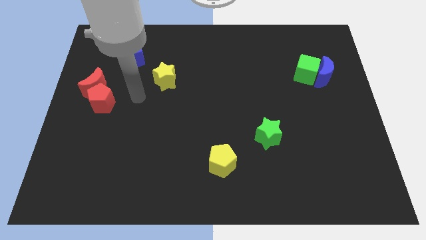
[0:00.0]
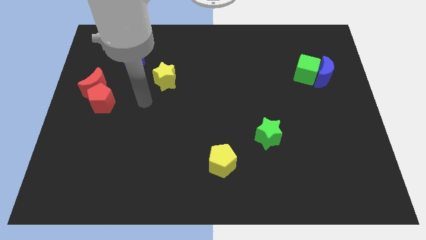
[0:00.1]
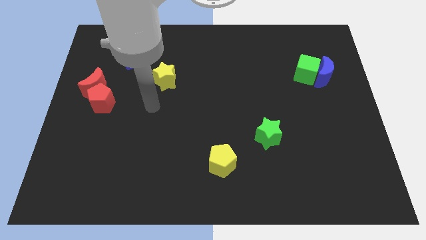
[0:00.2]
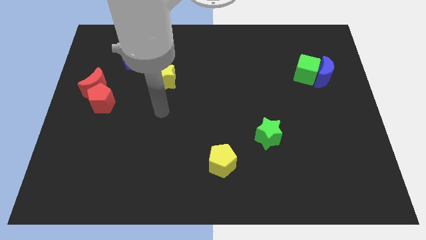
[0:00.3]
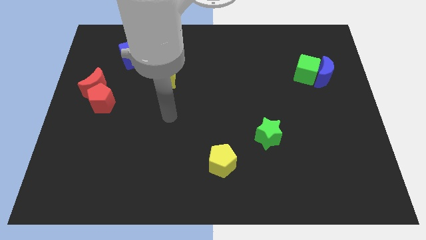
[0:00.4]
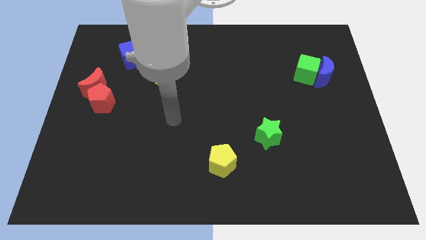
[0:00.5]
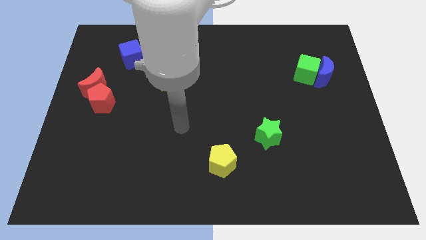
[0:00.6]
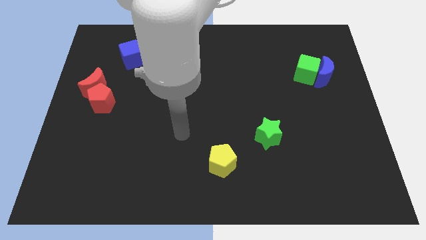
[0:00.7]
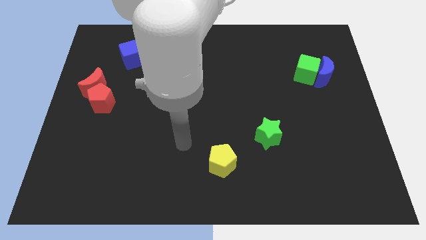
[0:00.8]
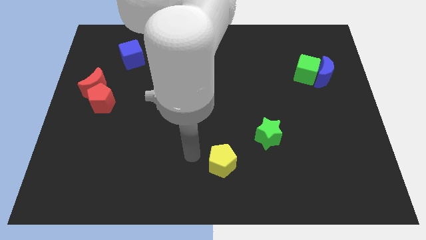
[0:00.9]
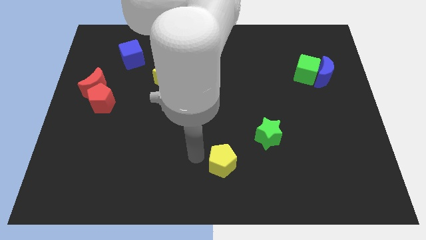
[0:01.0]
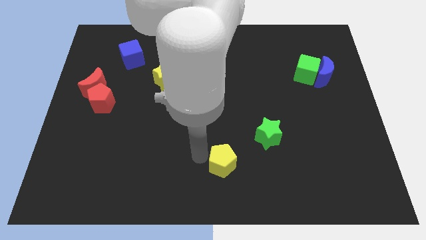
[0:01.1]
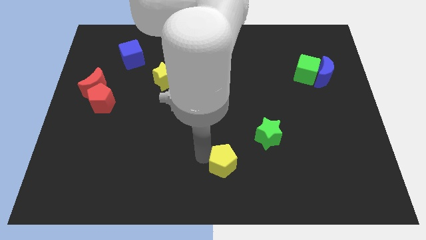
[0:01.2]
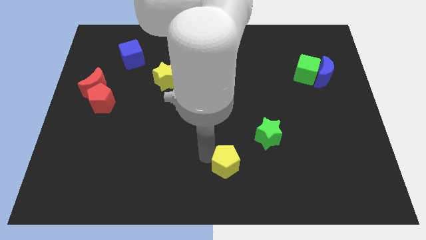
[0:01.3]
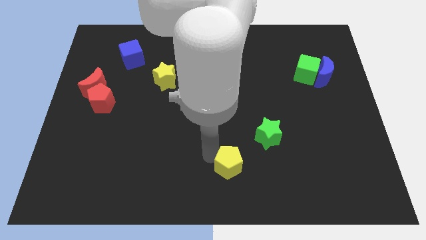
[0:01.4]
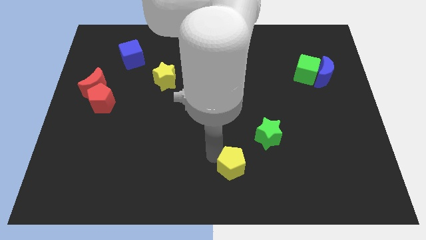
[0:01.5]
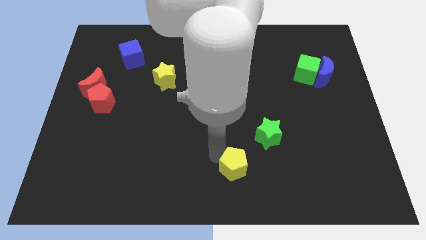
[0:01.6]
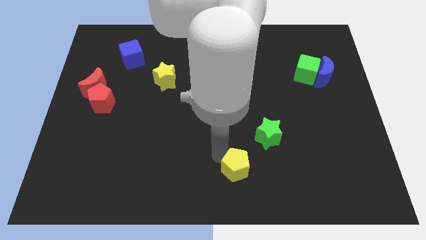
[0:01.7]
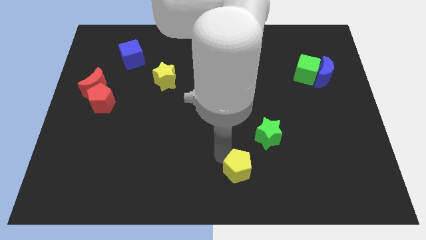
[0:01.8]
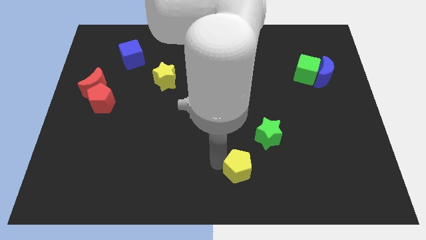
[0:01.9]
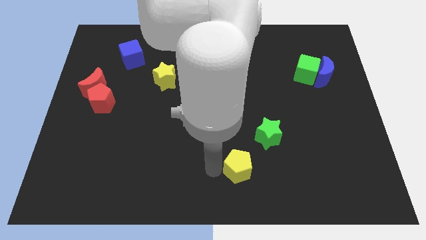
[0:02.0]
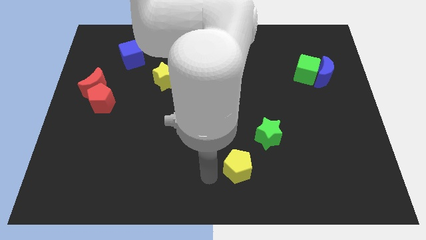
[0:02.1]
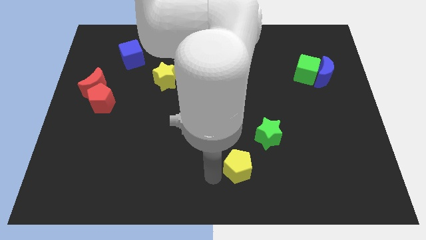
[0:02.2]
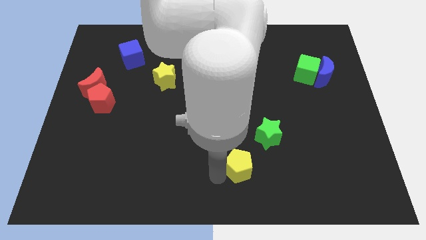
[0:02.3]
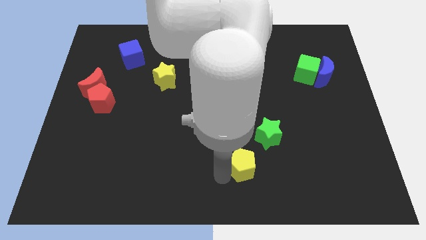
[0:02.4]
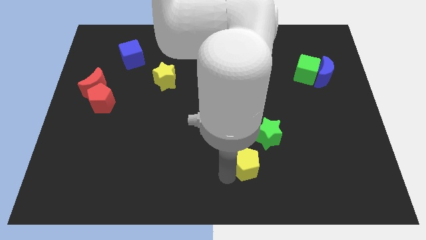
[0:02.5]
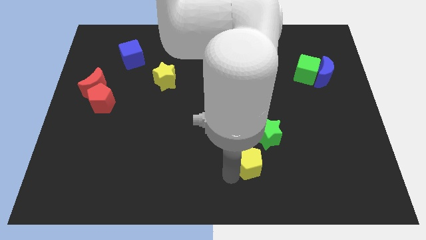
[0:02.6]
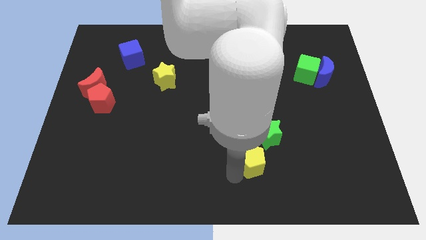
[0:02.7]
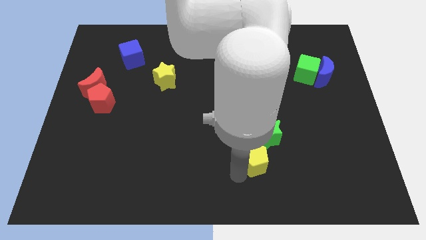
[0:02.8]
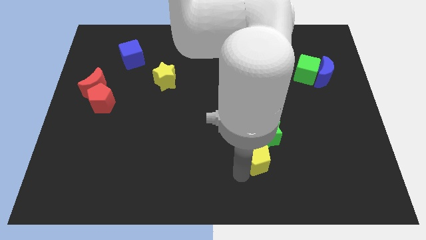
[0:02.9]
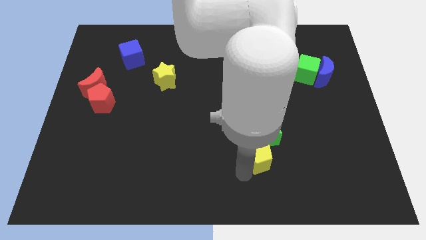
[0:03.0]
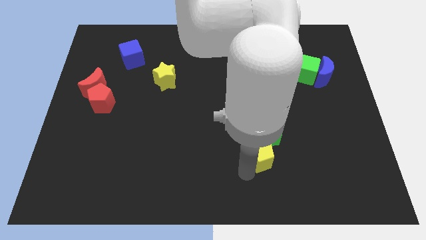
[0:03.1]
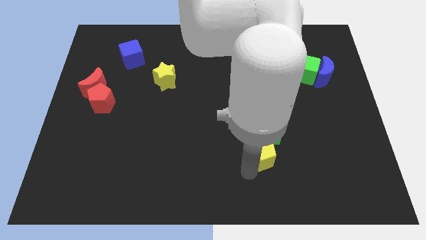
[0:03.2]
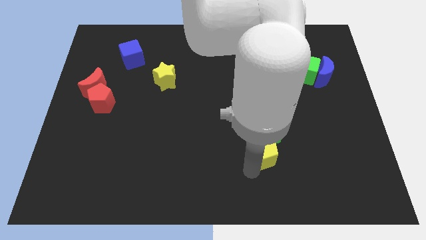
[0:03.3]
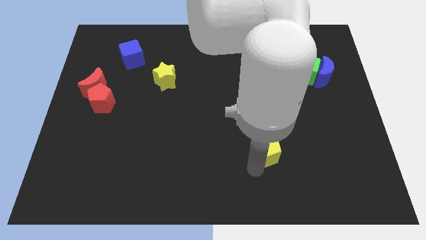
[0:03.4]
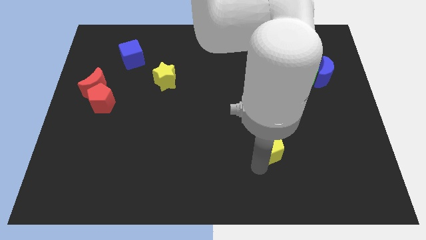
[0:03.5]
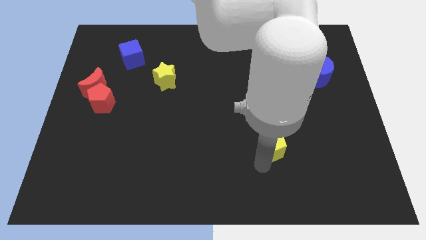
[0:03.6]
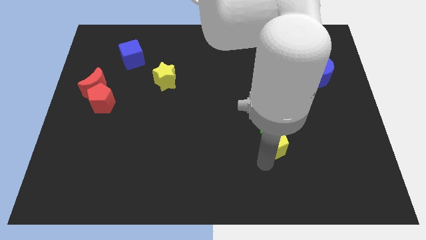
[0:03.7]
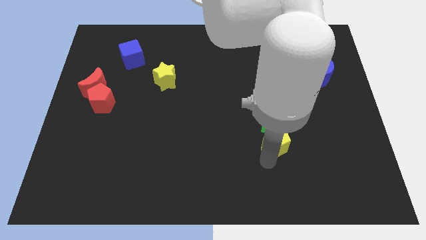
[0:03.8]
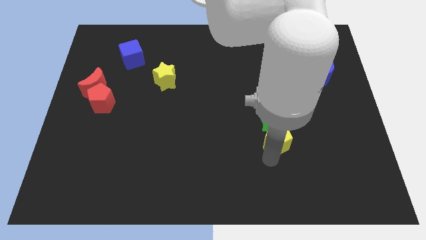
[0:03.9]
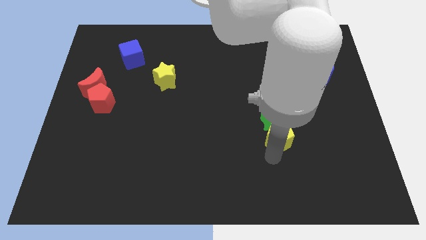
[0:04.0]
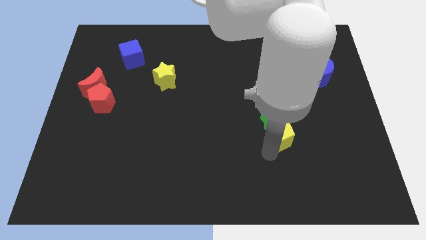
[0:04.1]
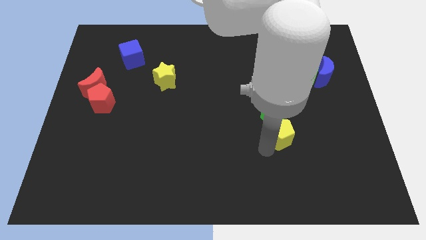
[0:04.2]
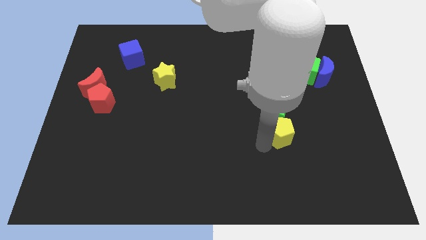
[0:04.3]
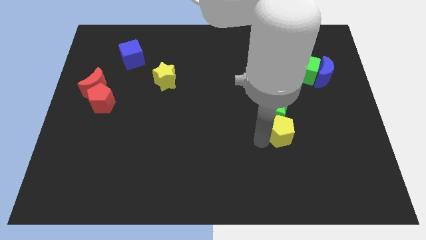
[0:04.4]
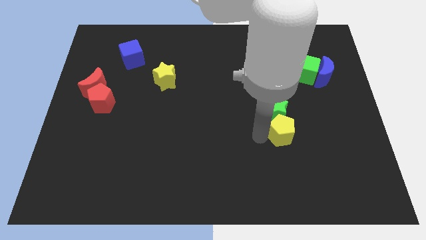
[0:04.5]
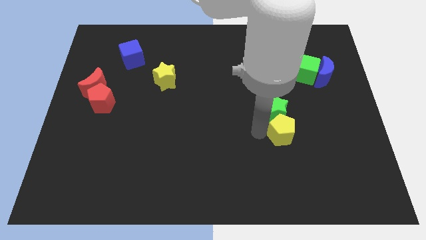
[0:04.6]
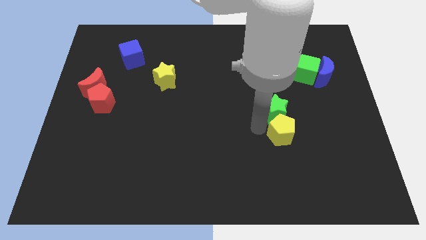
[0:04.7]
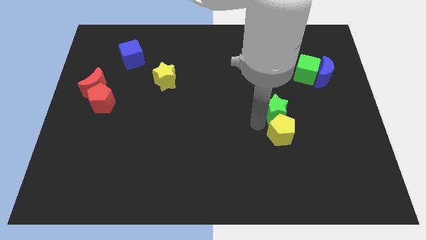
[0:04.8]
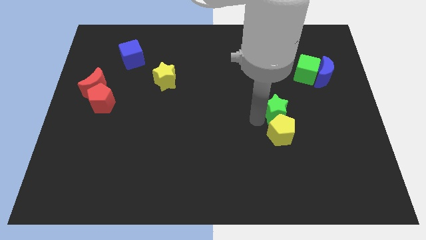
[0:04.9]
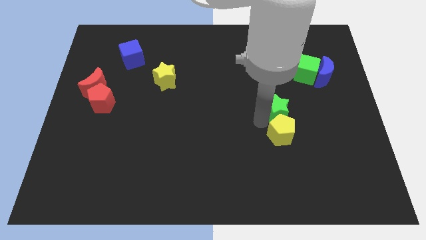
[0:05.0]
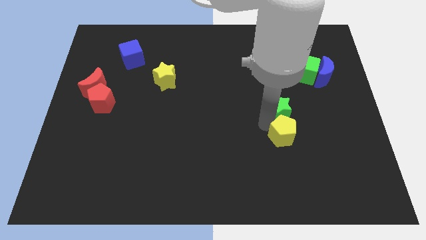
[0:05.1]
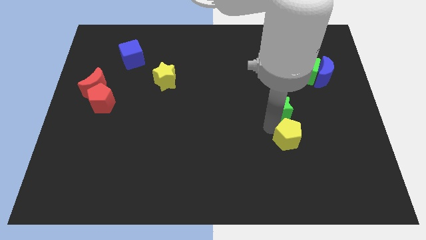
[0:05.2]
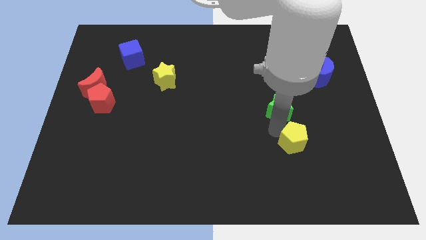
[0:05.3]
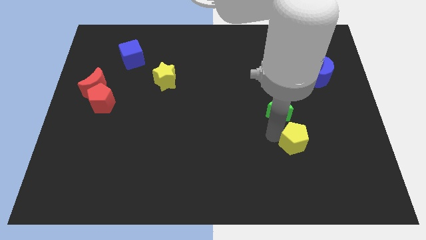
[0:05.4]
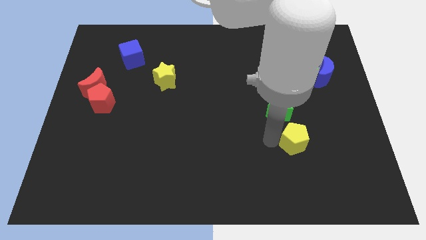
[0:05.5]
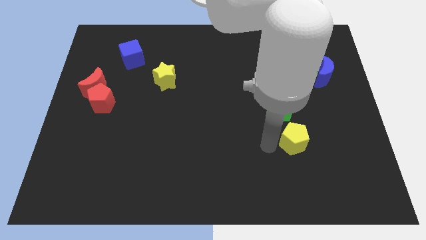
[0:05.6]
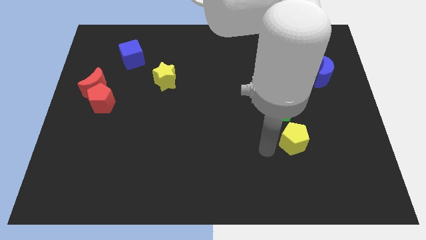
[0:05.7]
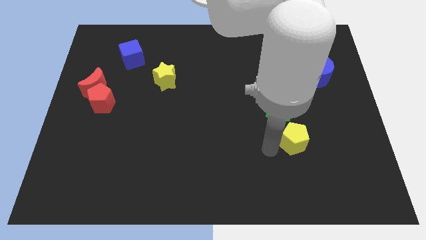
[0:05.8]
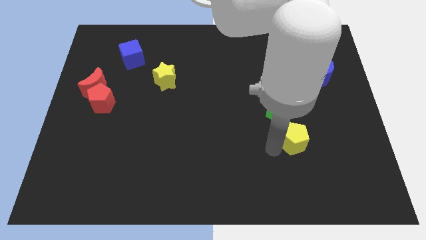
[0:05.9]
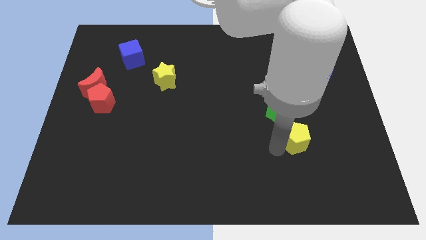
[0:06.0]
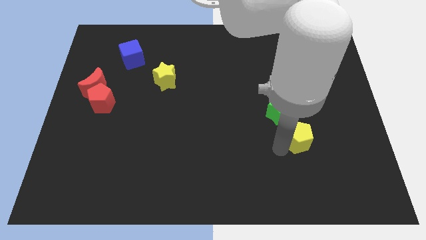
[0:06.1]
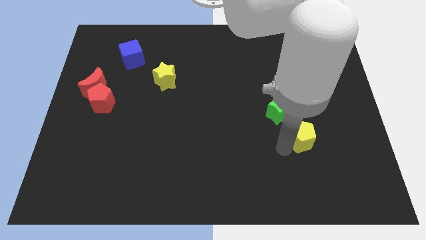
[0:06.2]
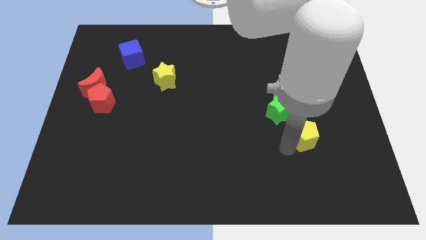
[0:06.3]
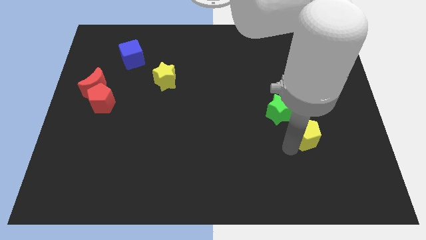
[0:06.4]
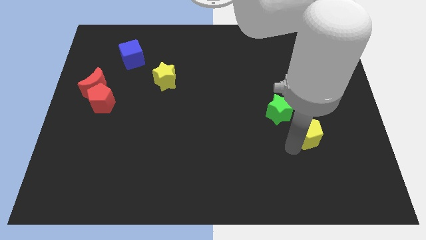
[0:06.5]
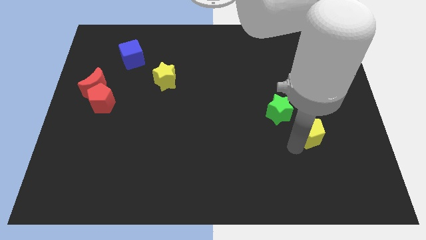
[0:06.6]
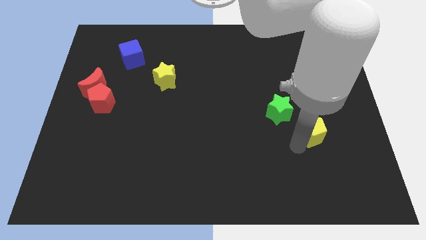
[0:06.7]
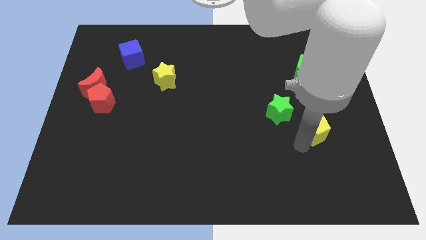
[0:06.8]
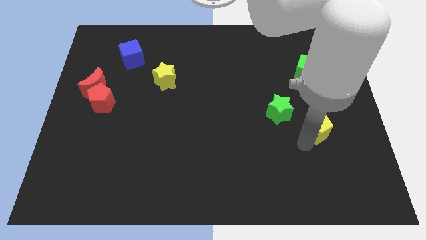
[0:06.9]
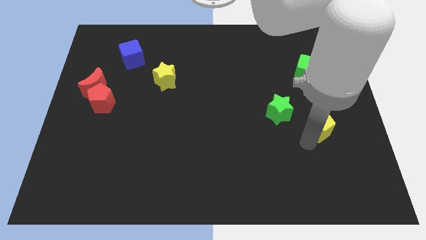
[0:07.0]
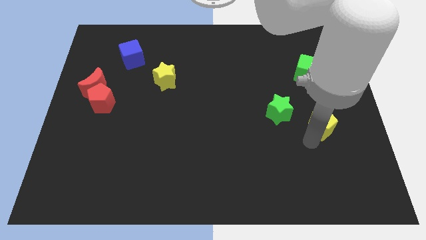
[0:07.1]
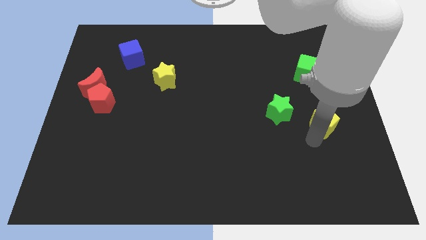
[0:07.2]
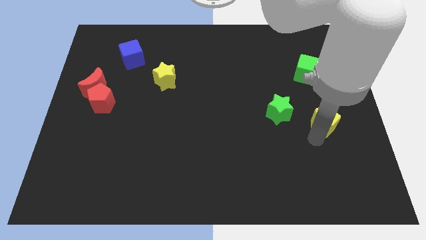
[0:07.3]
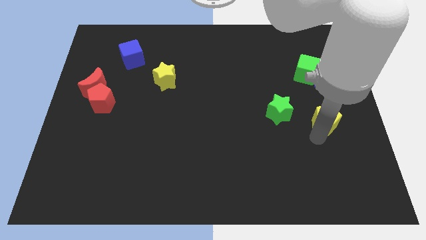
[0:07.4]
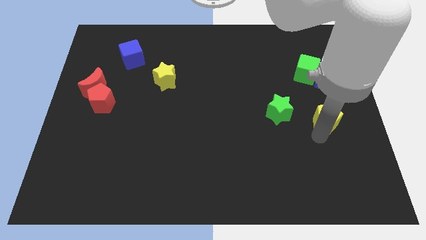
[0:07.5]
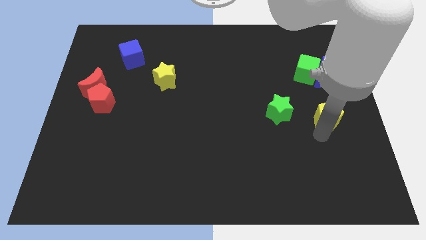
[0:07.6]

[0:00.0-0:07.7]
push the yellow pentagon to the right side
